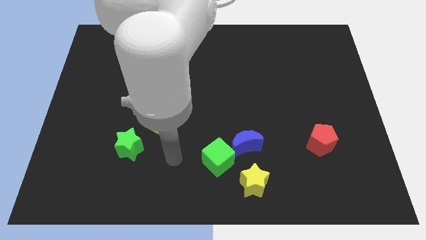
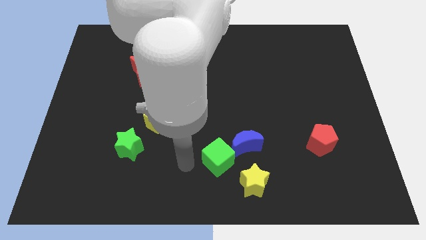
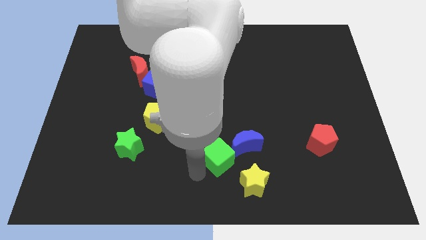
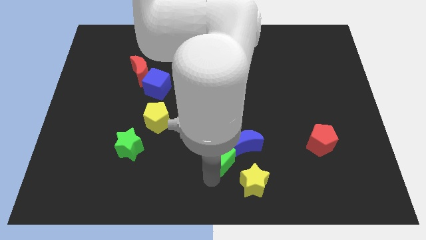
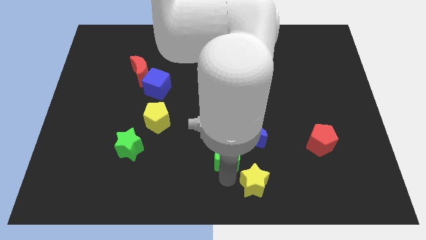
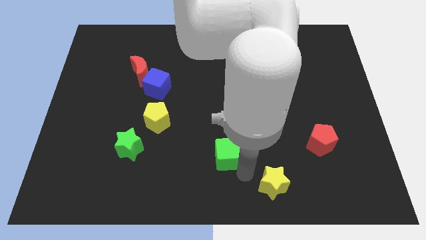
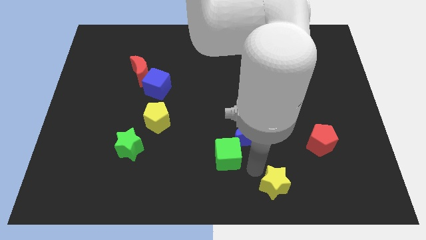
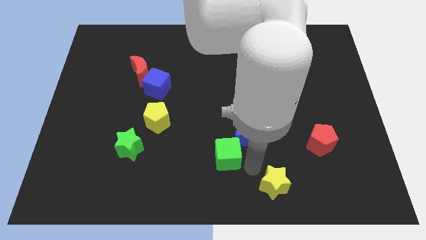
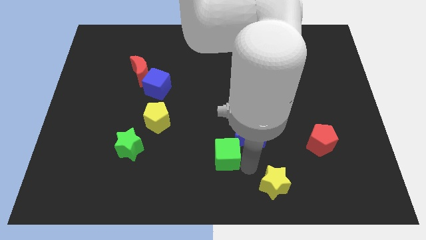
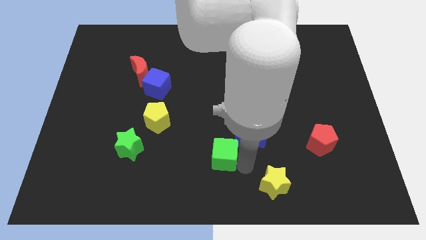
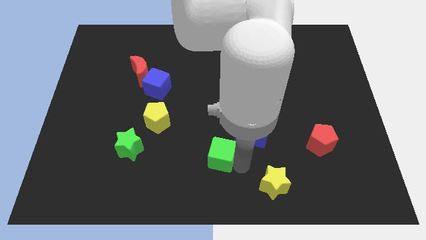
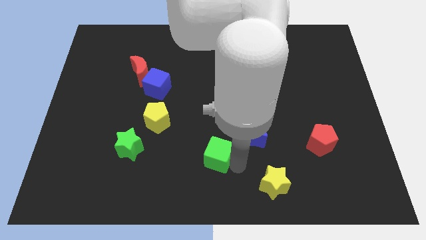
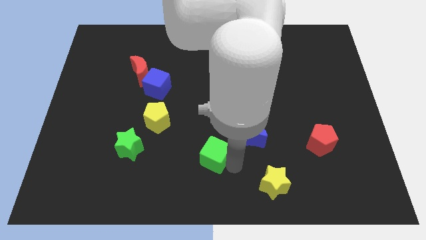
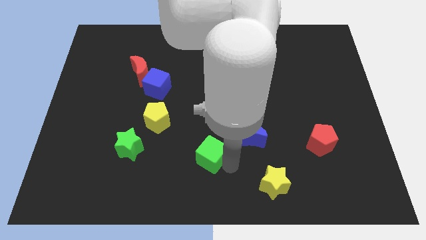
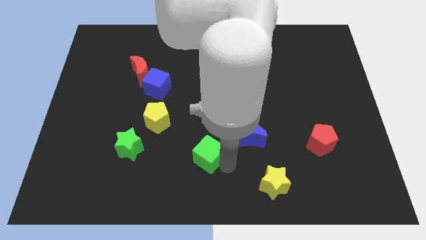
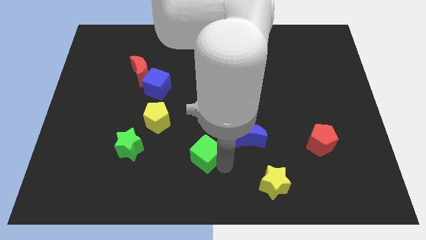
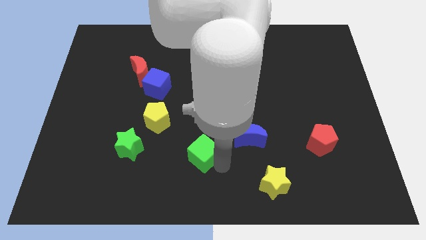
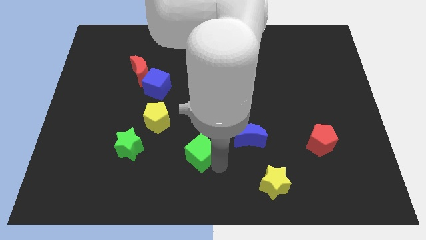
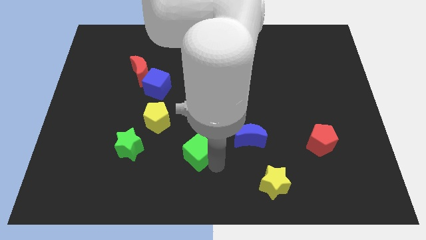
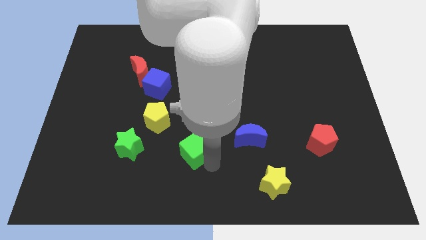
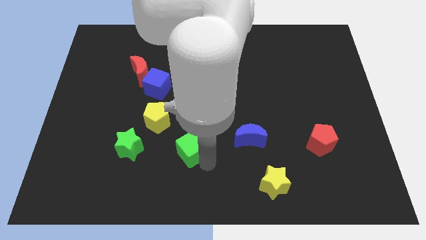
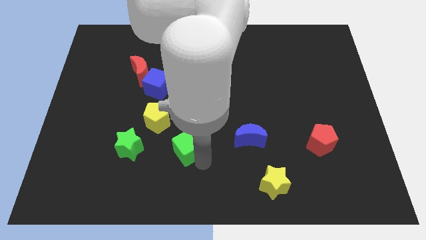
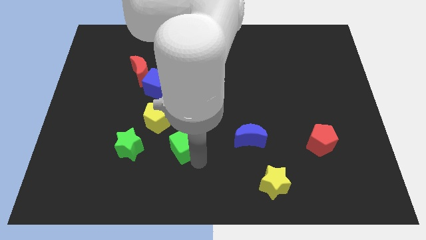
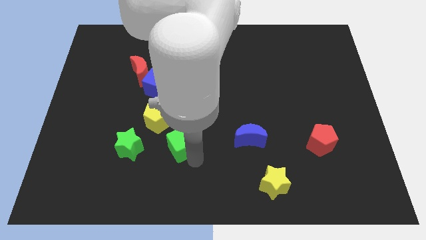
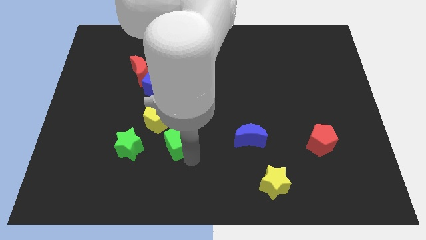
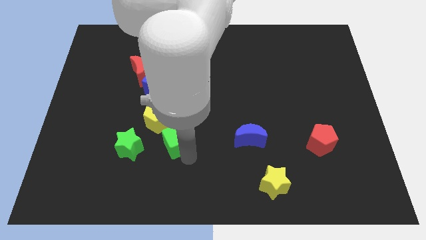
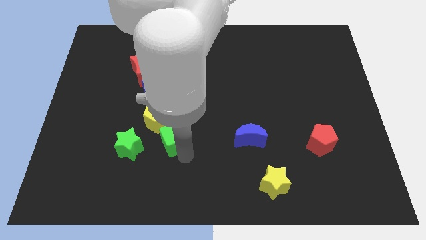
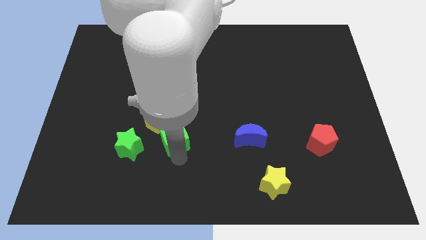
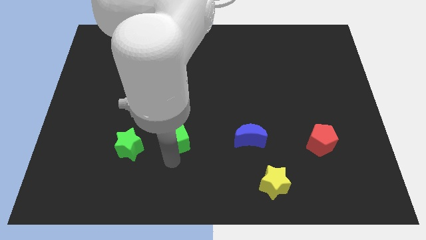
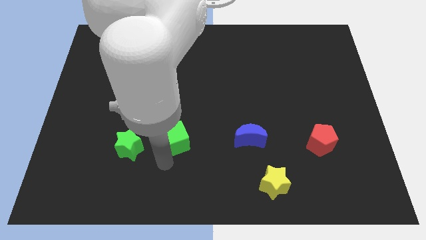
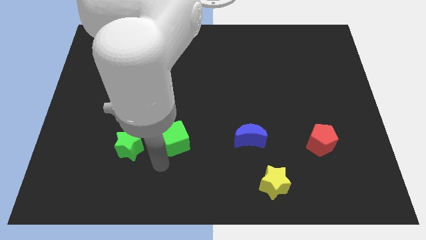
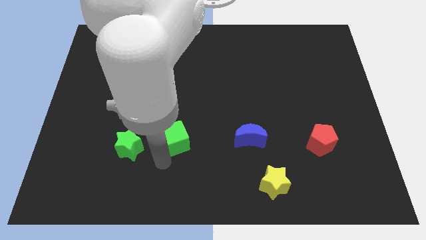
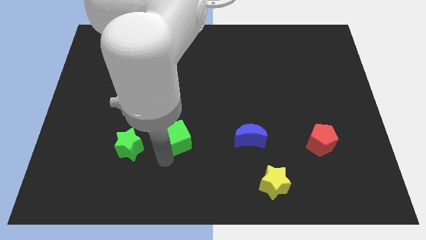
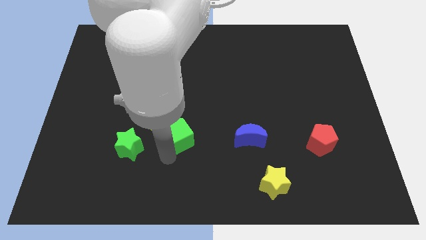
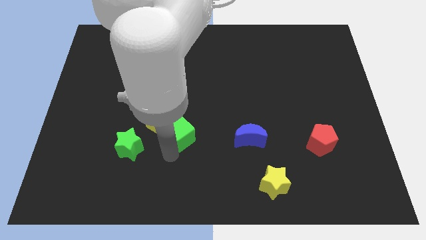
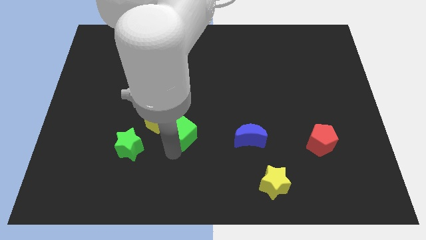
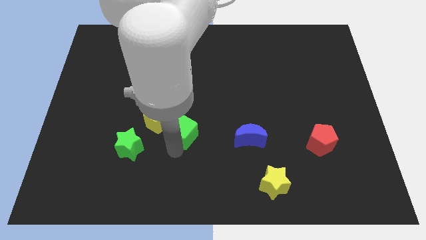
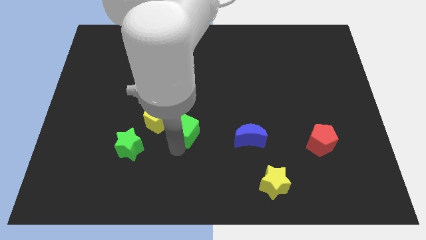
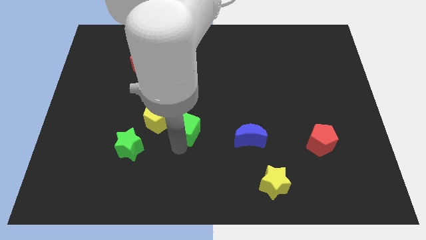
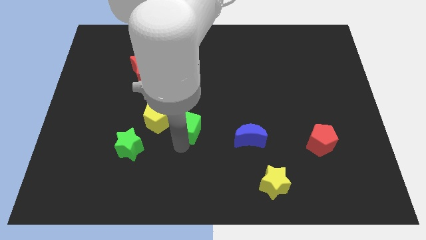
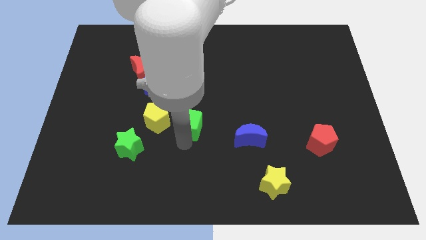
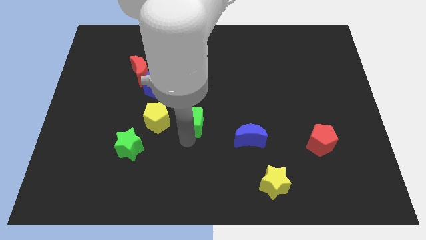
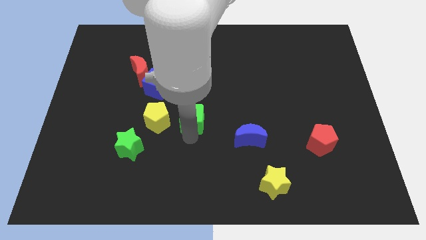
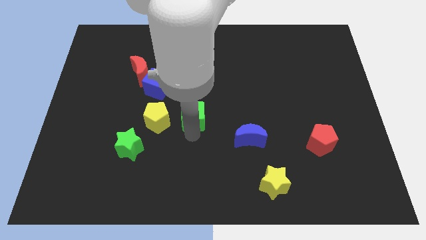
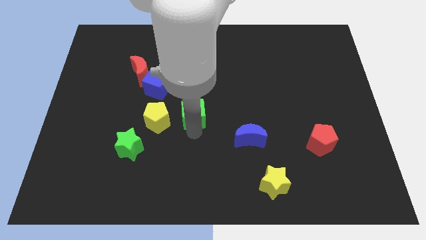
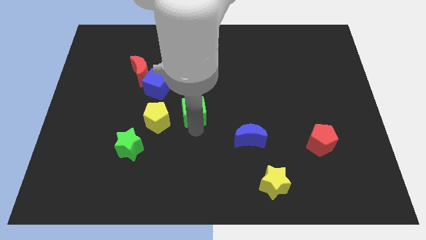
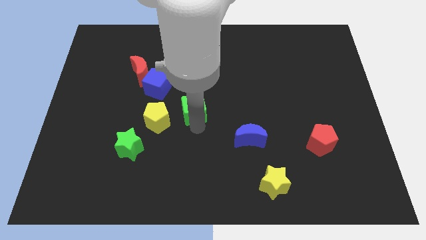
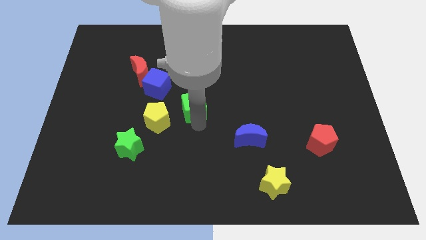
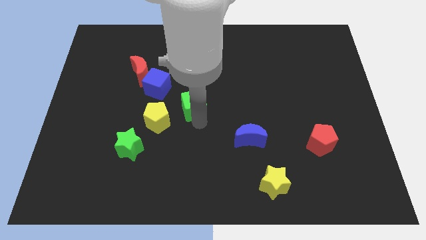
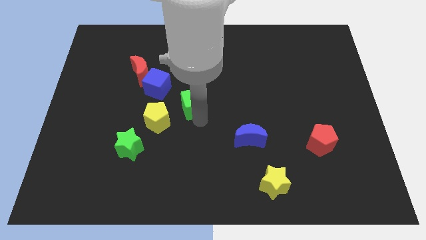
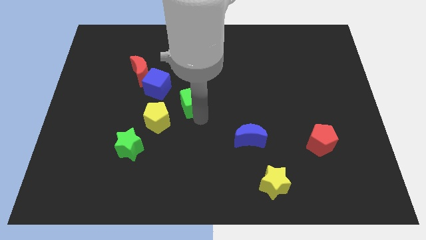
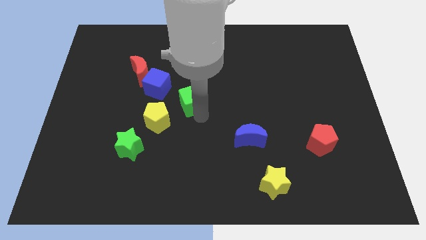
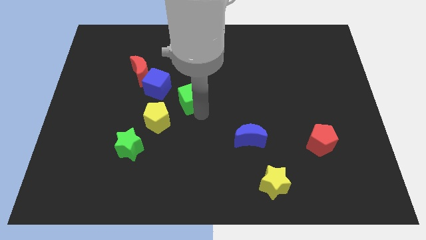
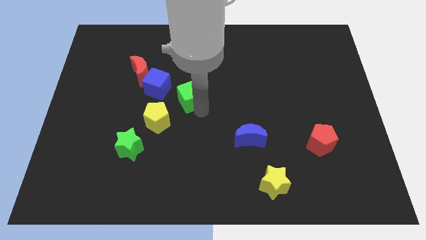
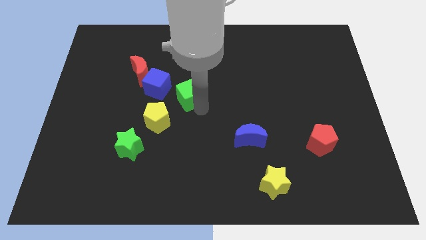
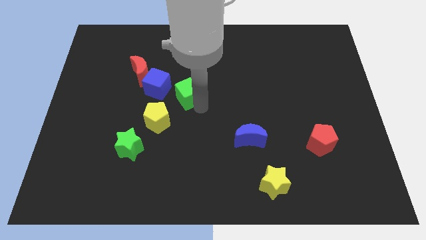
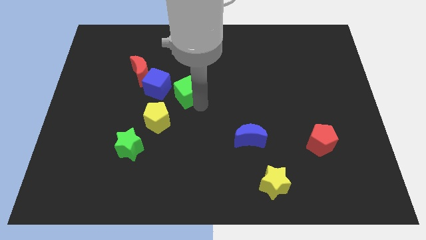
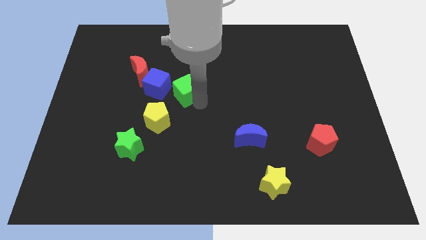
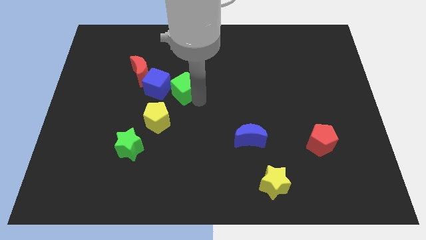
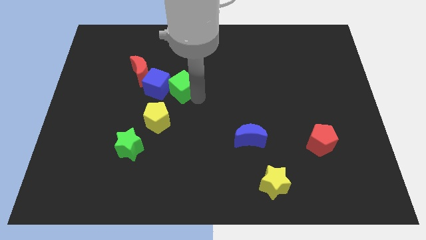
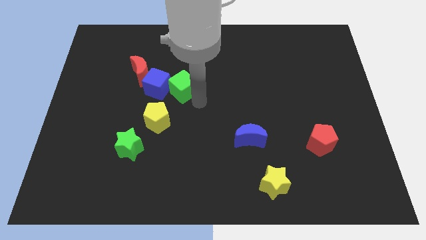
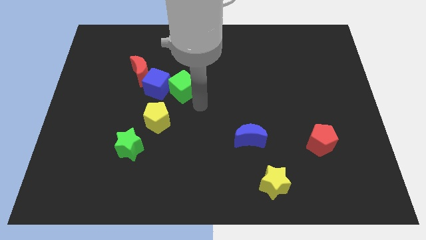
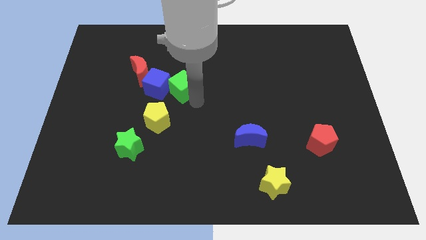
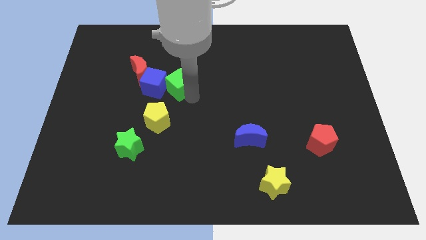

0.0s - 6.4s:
push the green cube to the top of the yellow pentagon

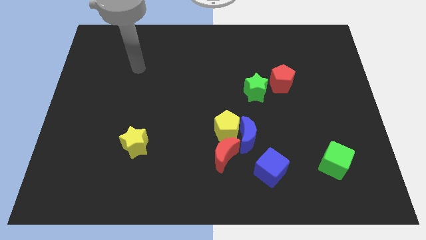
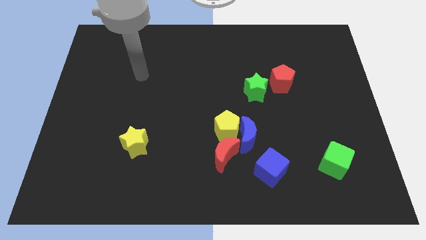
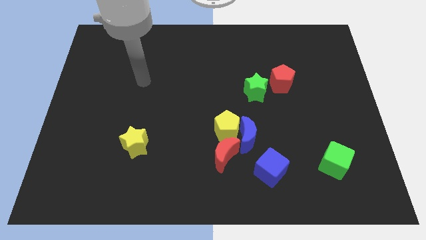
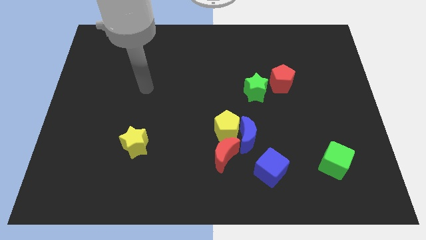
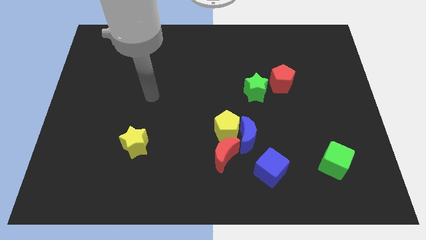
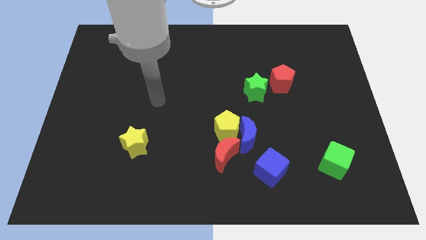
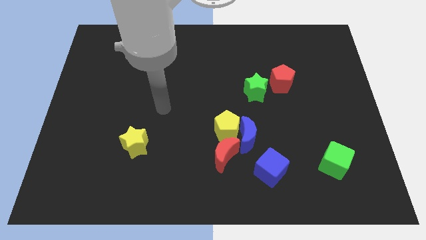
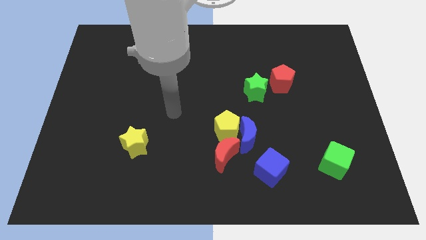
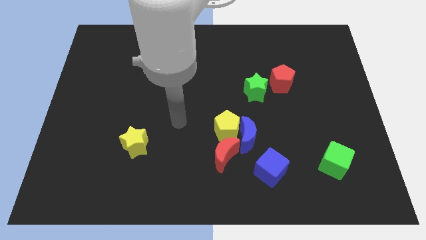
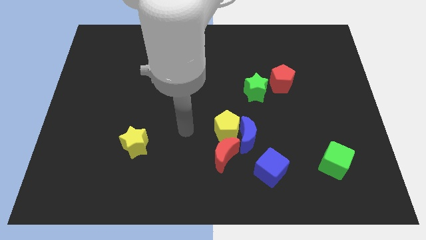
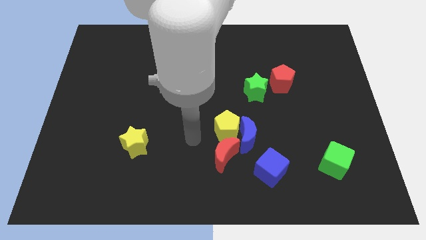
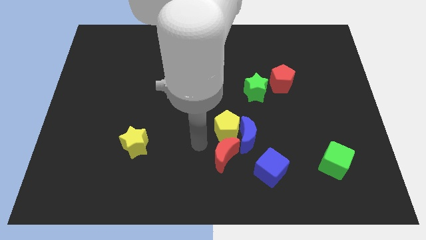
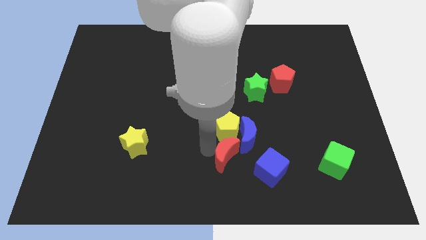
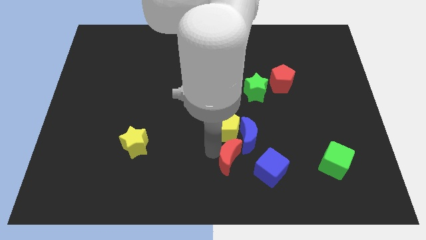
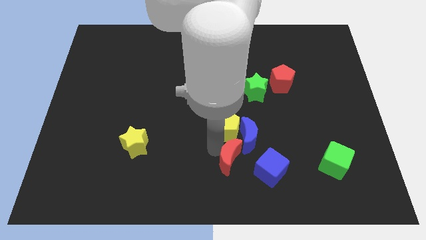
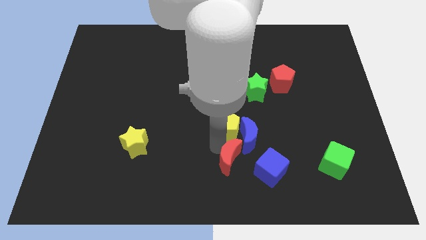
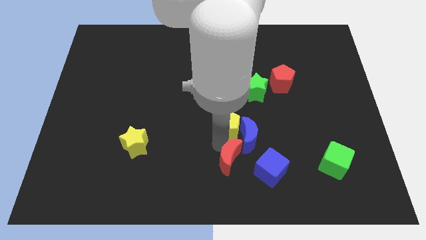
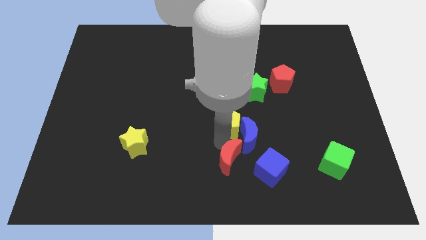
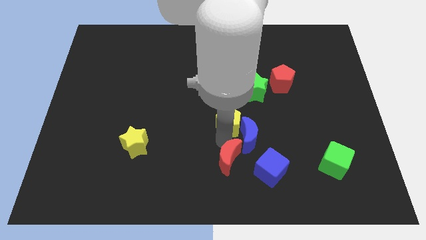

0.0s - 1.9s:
move the yellow pentagon above the blue moon
